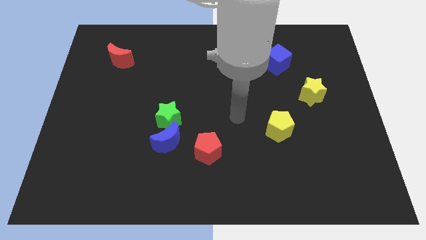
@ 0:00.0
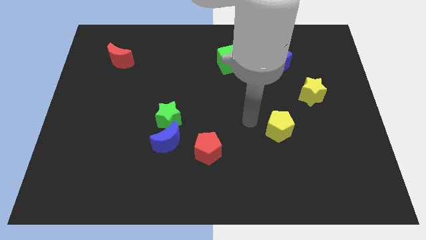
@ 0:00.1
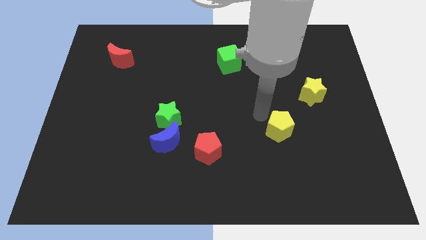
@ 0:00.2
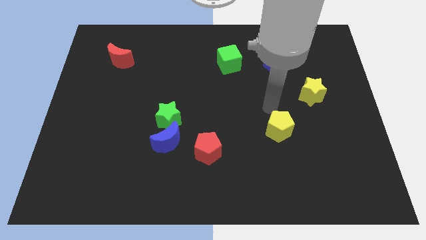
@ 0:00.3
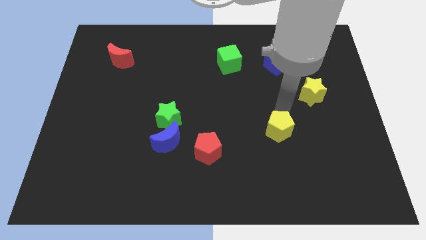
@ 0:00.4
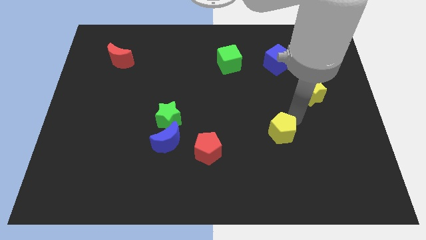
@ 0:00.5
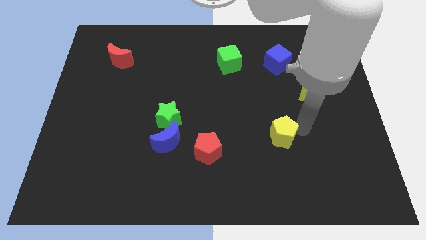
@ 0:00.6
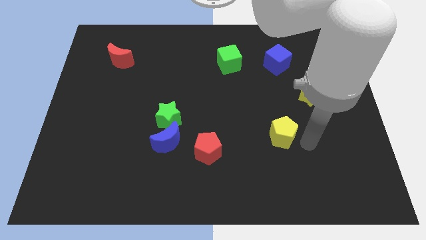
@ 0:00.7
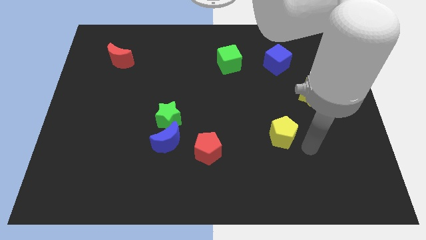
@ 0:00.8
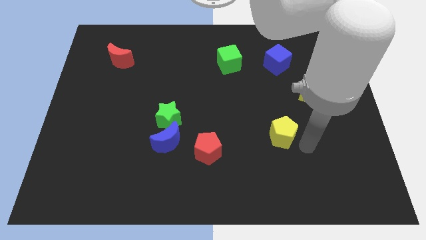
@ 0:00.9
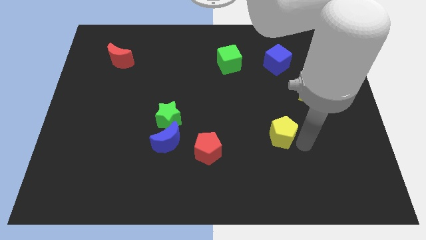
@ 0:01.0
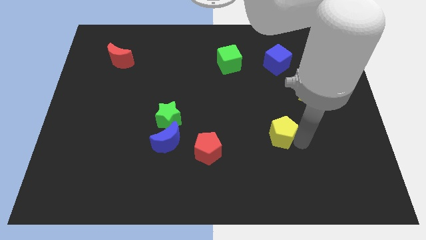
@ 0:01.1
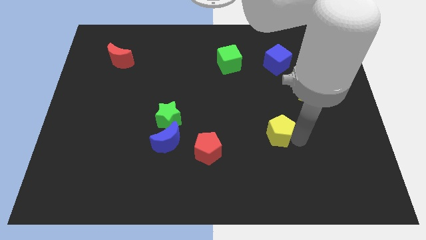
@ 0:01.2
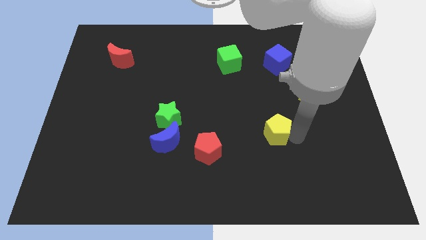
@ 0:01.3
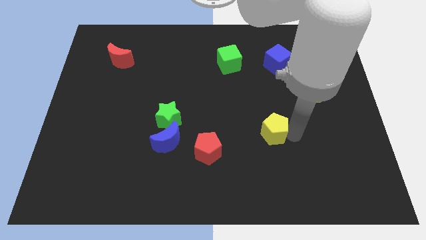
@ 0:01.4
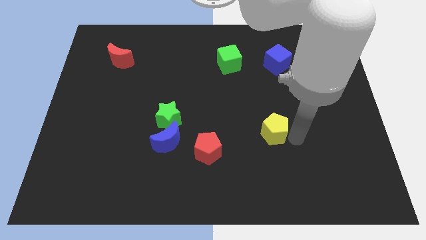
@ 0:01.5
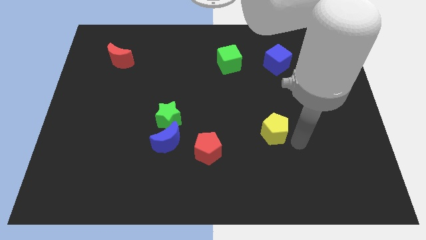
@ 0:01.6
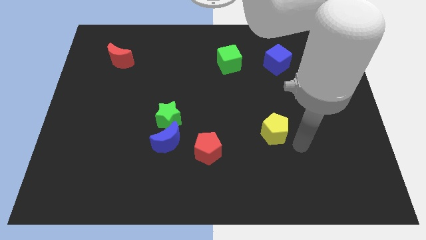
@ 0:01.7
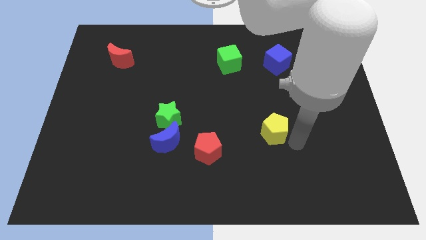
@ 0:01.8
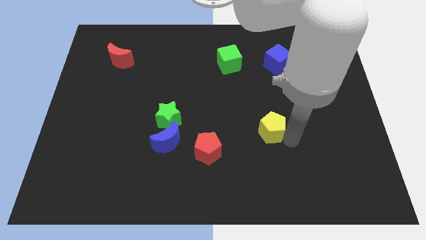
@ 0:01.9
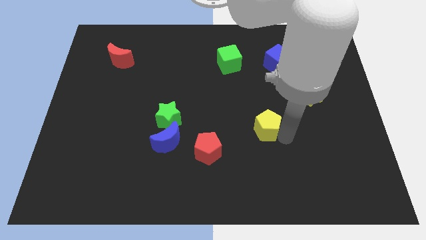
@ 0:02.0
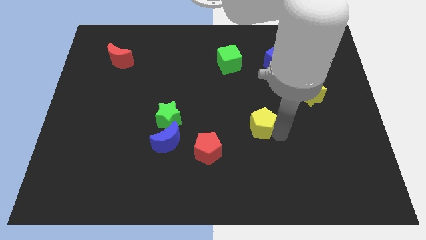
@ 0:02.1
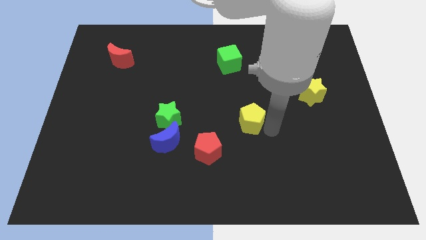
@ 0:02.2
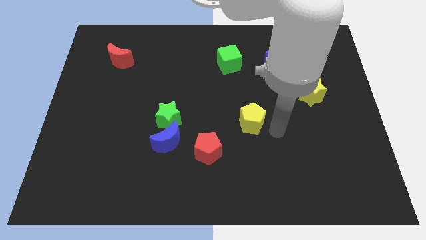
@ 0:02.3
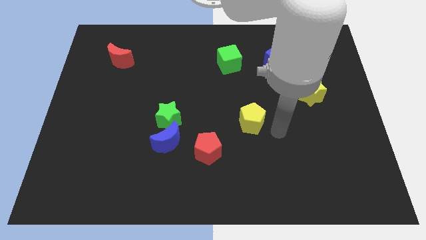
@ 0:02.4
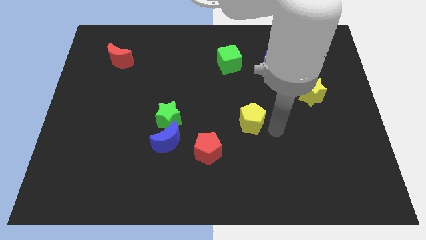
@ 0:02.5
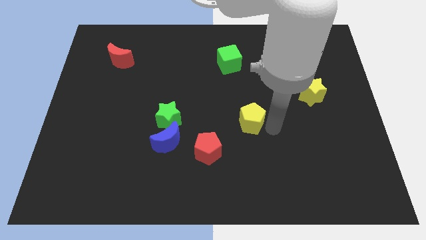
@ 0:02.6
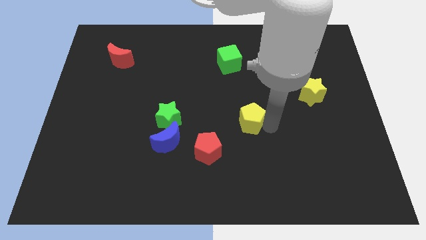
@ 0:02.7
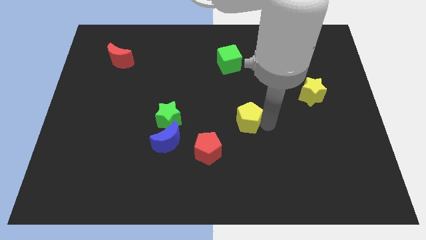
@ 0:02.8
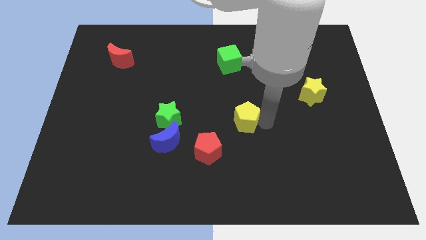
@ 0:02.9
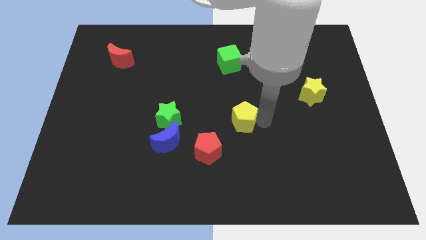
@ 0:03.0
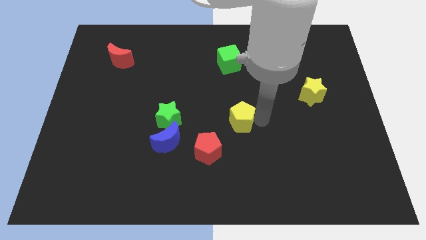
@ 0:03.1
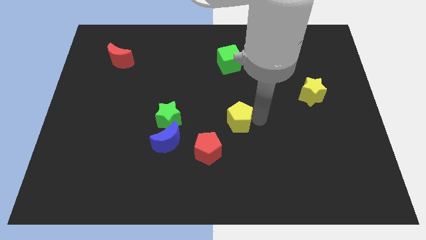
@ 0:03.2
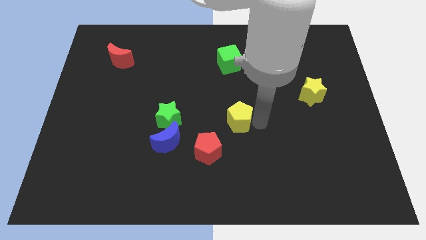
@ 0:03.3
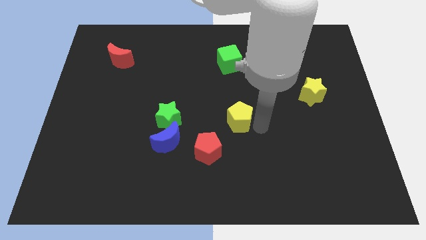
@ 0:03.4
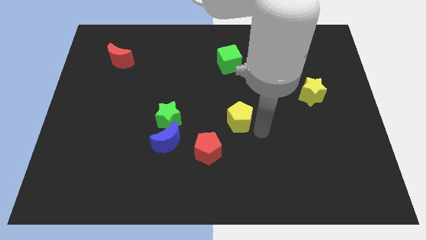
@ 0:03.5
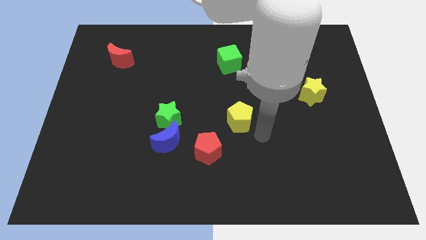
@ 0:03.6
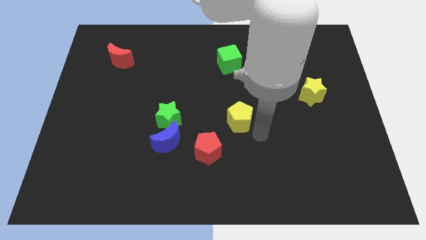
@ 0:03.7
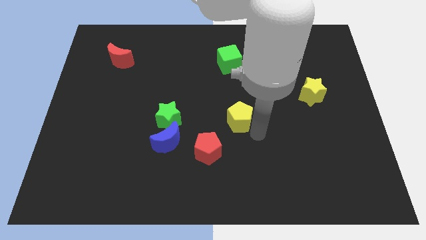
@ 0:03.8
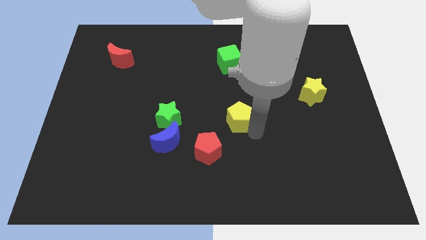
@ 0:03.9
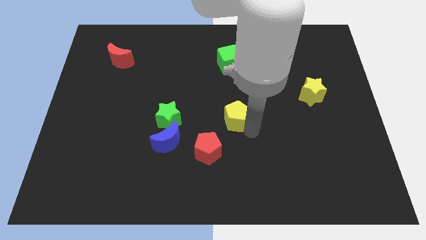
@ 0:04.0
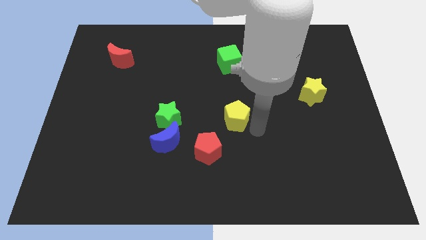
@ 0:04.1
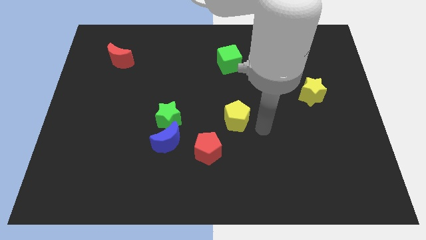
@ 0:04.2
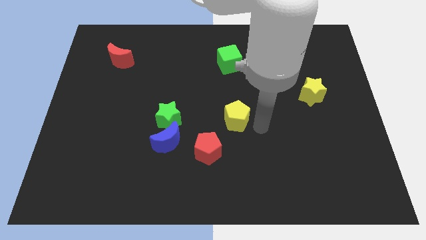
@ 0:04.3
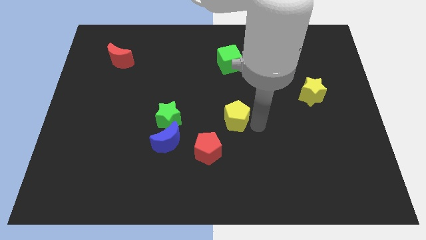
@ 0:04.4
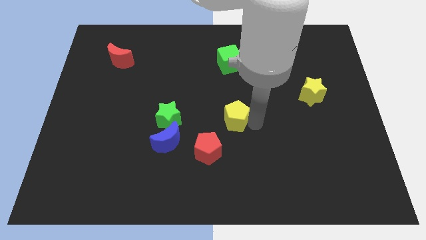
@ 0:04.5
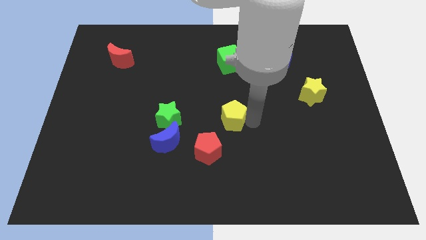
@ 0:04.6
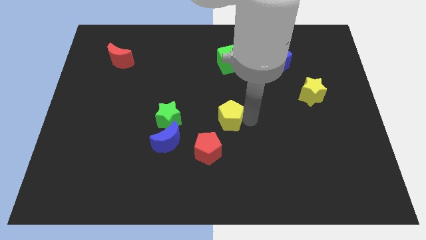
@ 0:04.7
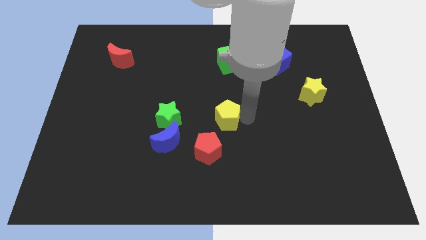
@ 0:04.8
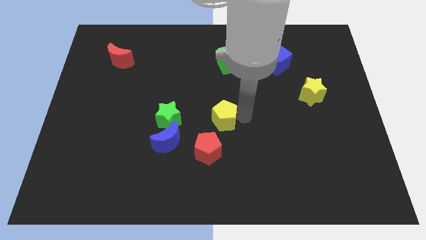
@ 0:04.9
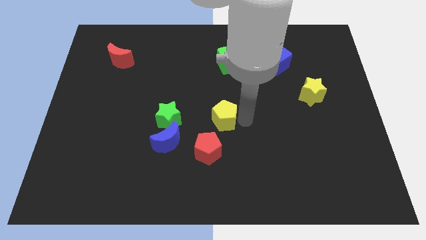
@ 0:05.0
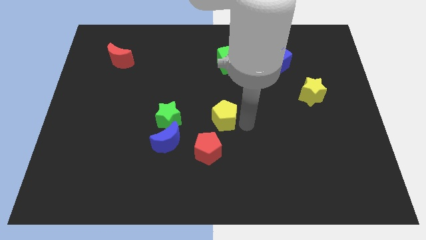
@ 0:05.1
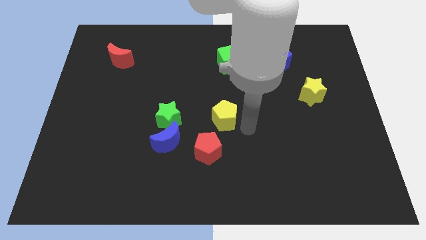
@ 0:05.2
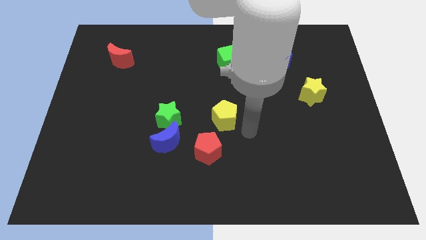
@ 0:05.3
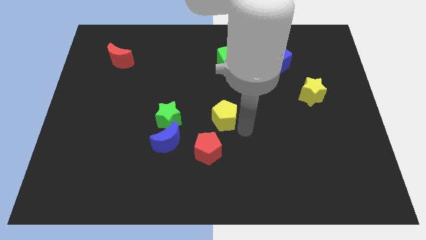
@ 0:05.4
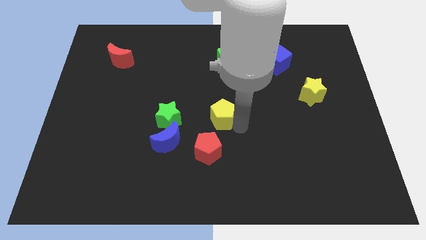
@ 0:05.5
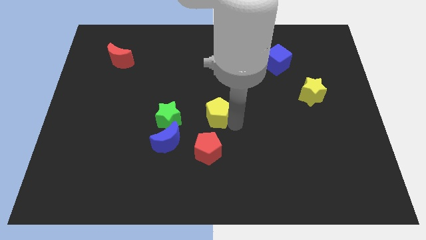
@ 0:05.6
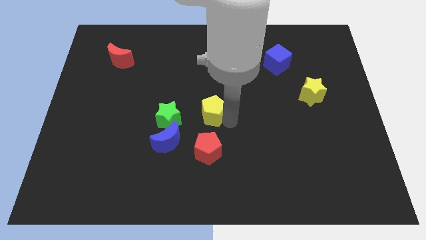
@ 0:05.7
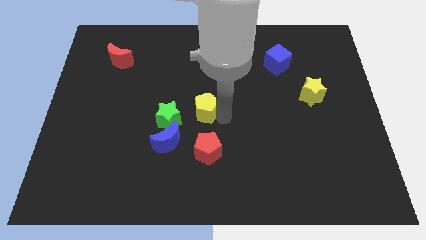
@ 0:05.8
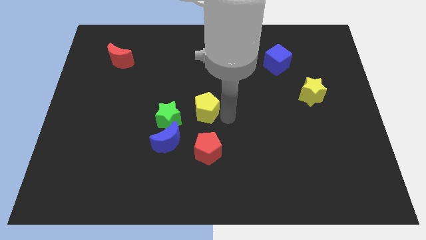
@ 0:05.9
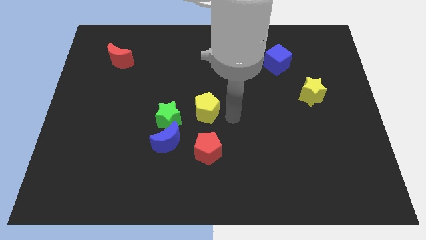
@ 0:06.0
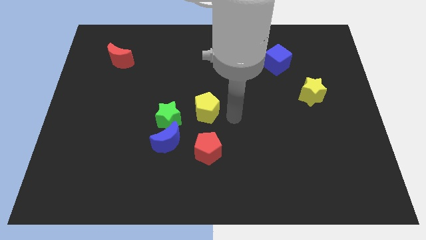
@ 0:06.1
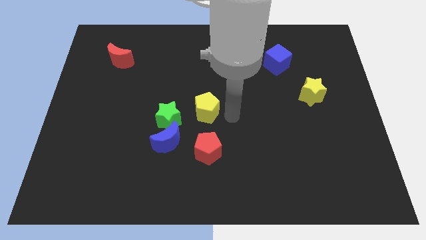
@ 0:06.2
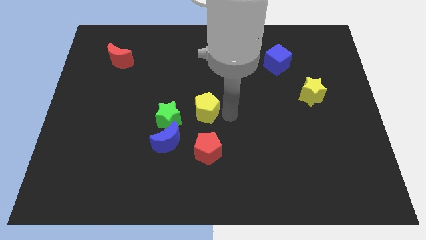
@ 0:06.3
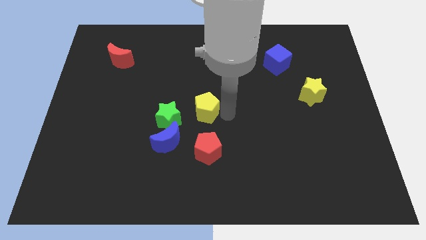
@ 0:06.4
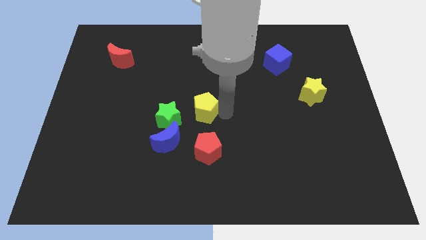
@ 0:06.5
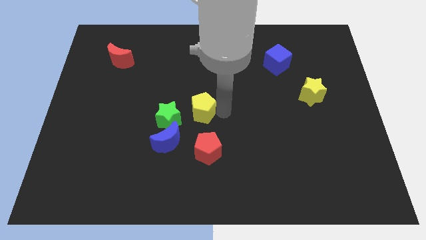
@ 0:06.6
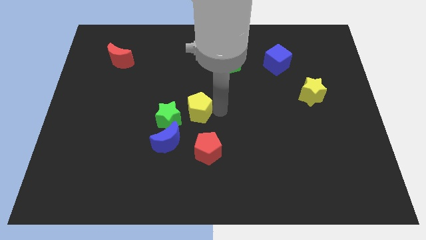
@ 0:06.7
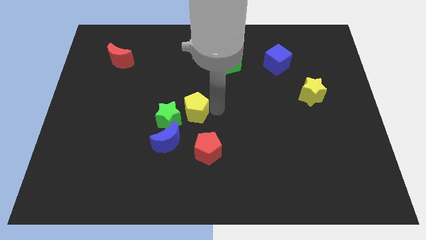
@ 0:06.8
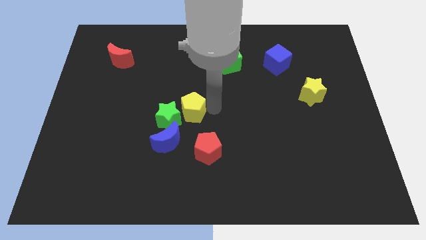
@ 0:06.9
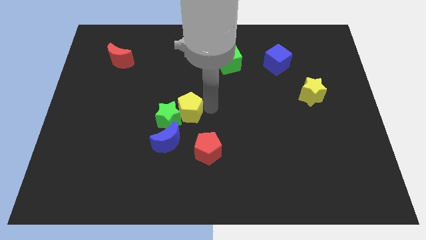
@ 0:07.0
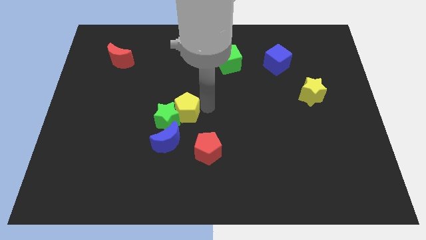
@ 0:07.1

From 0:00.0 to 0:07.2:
move the yellow pentagon left
